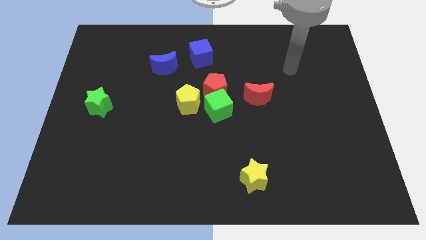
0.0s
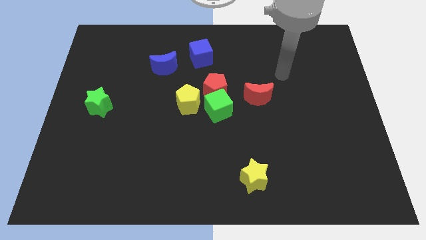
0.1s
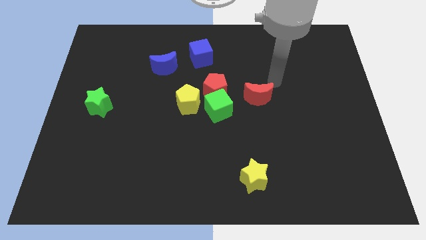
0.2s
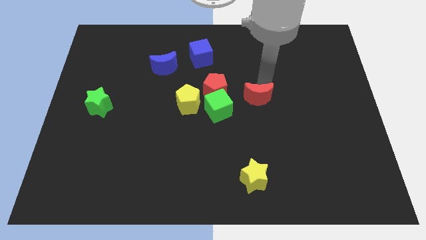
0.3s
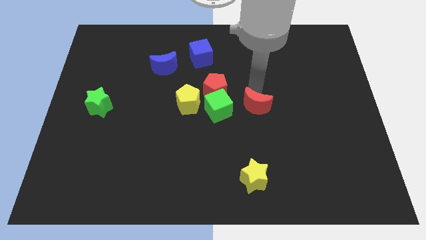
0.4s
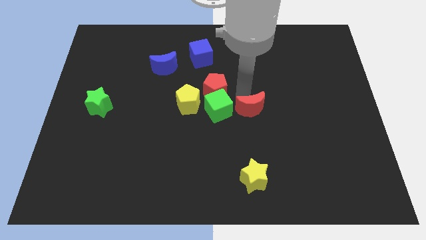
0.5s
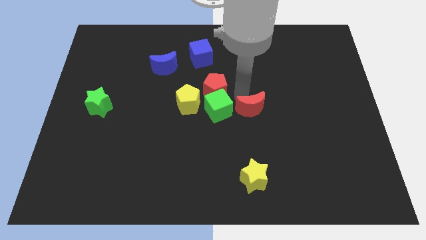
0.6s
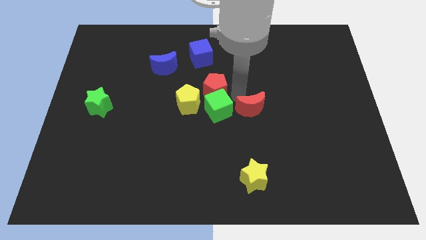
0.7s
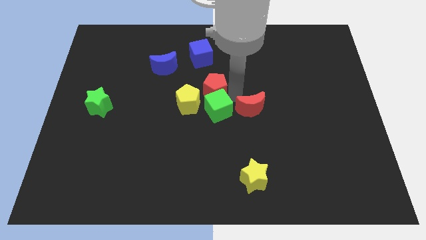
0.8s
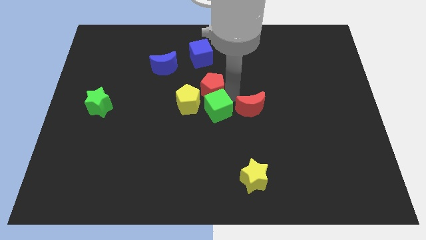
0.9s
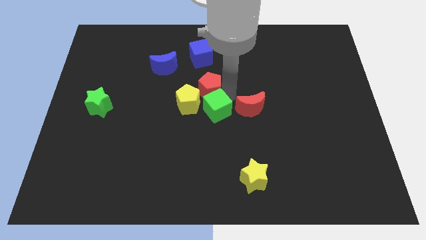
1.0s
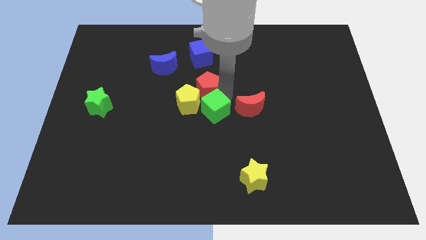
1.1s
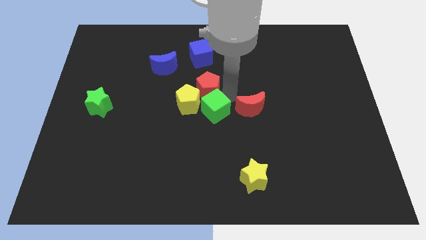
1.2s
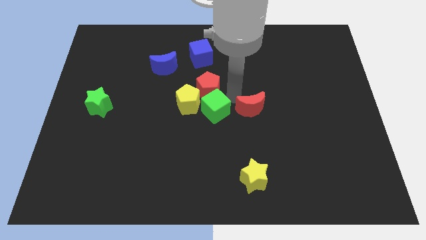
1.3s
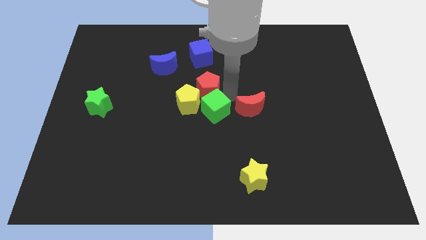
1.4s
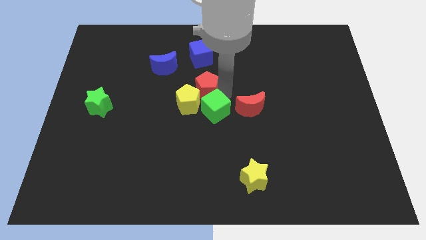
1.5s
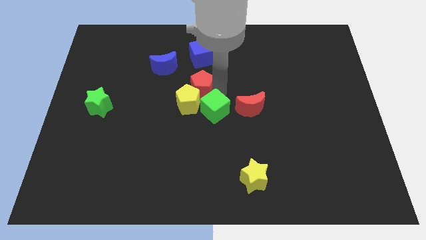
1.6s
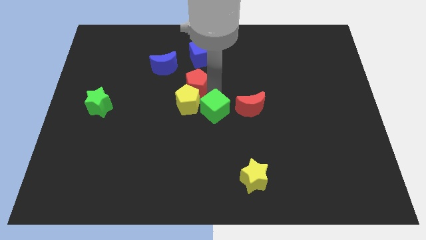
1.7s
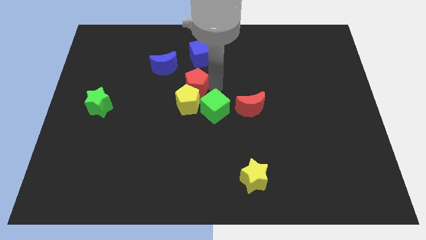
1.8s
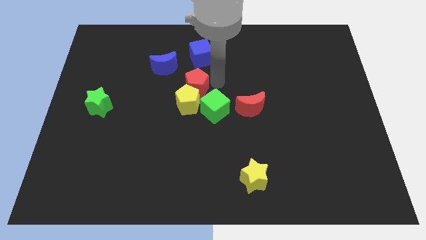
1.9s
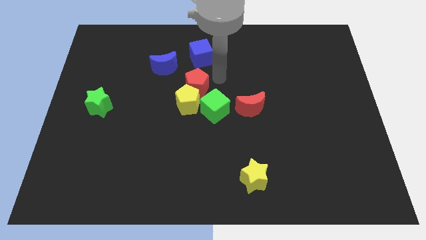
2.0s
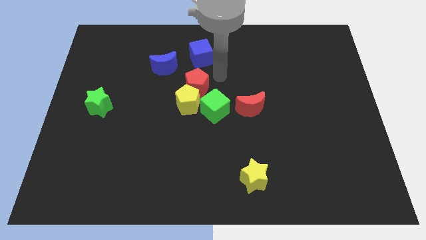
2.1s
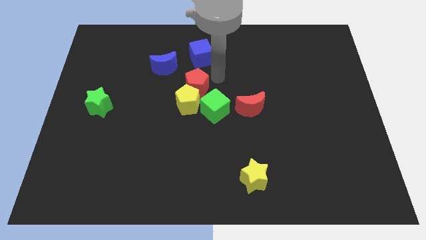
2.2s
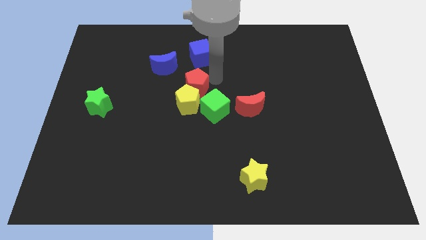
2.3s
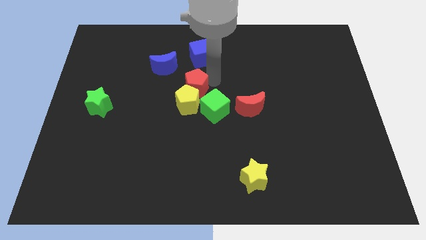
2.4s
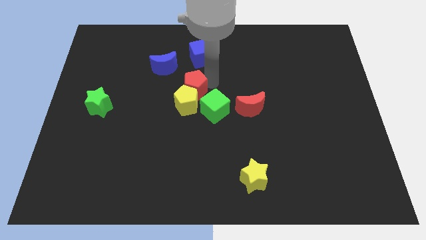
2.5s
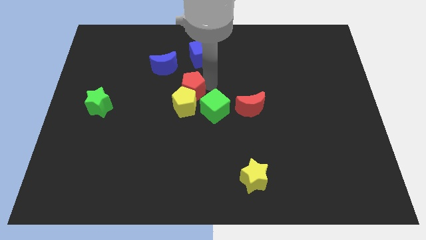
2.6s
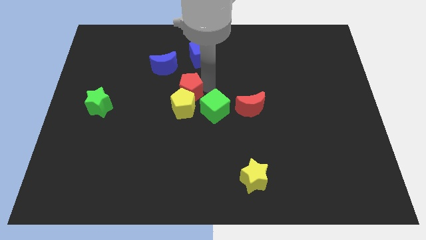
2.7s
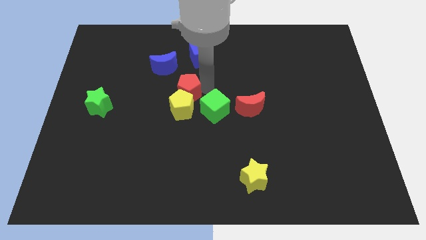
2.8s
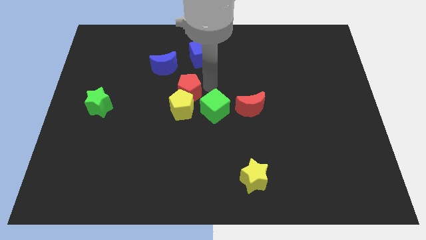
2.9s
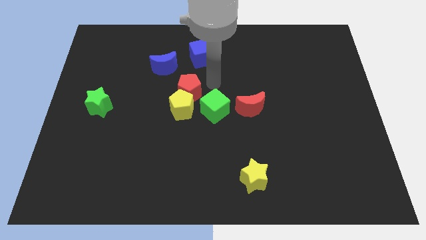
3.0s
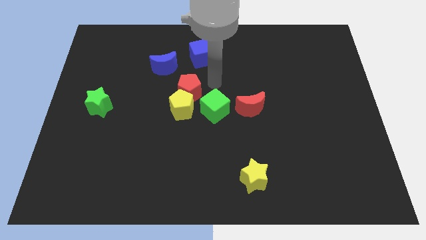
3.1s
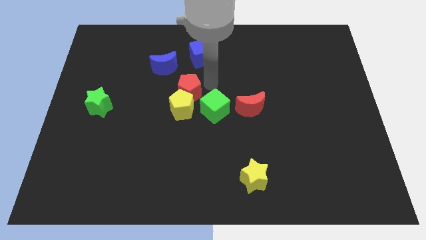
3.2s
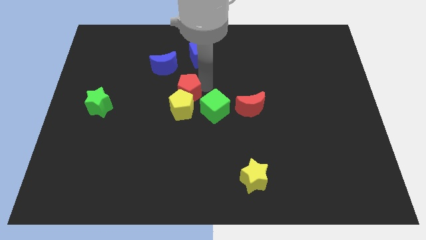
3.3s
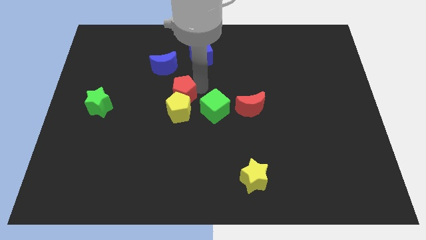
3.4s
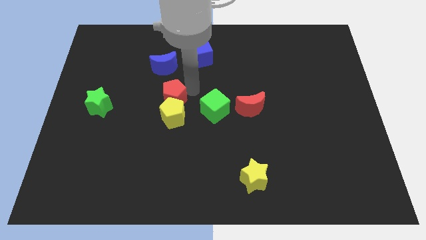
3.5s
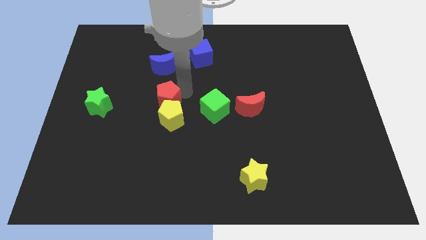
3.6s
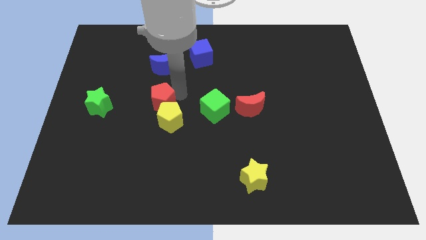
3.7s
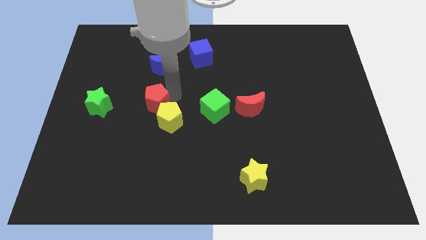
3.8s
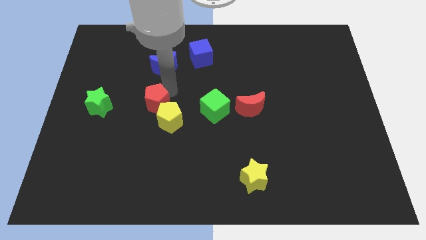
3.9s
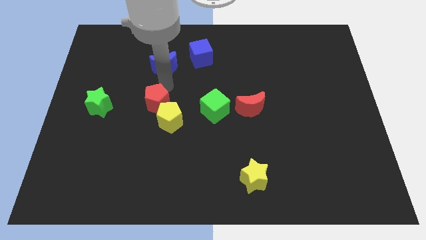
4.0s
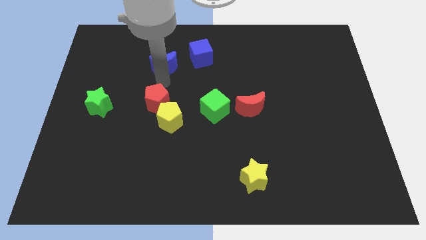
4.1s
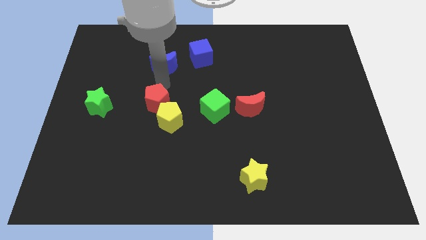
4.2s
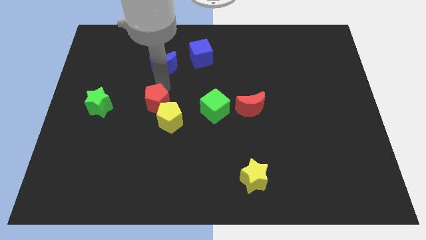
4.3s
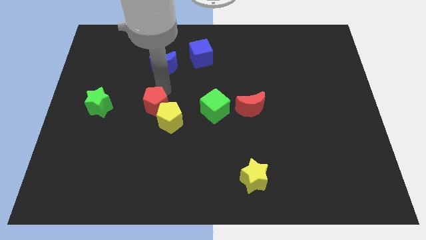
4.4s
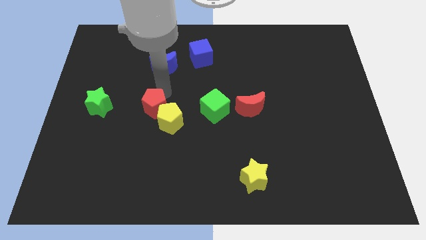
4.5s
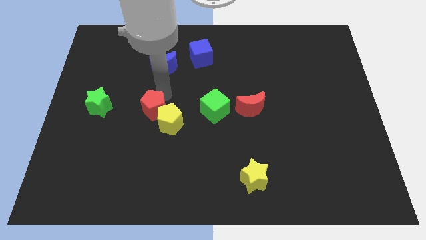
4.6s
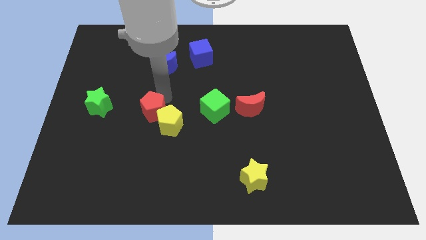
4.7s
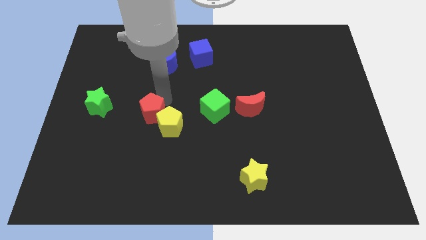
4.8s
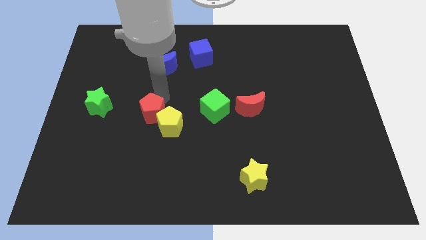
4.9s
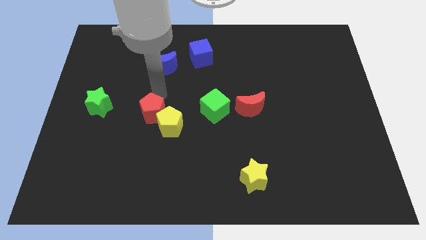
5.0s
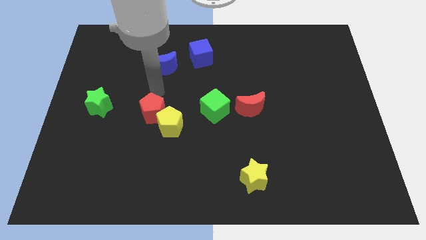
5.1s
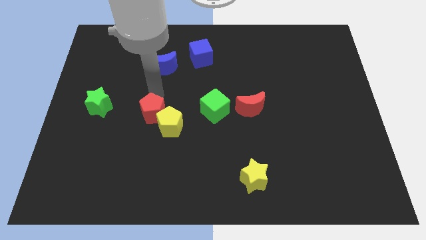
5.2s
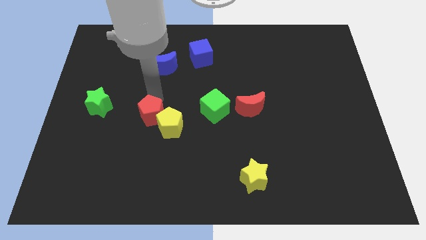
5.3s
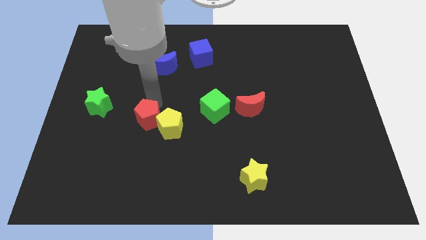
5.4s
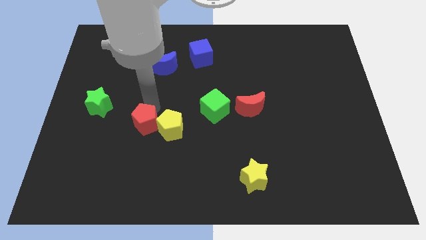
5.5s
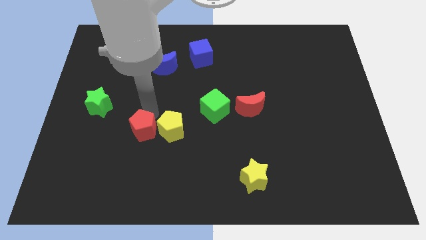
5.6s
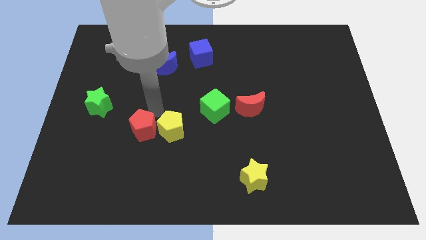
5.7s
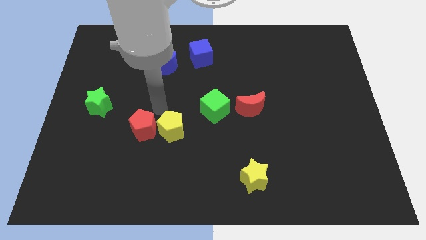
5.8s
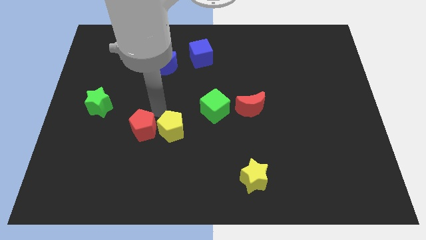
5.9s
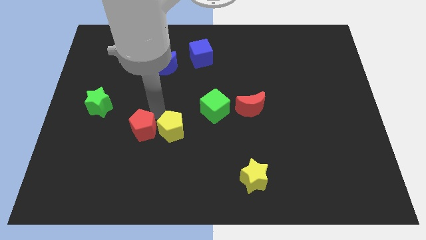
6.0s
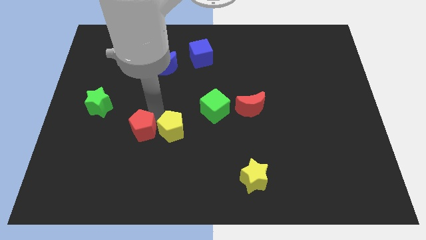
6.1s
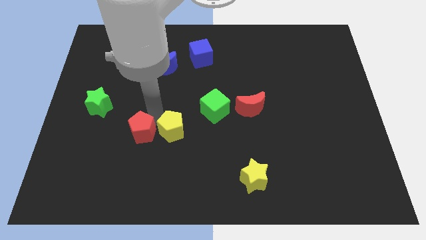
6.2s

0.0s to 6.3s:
move the red pentagon down and left diagonally

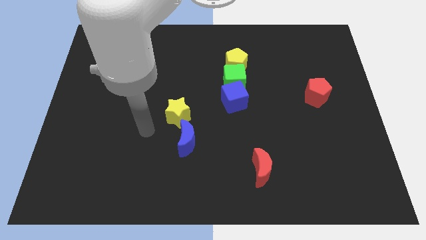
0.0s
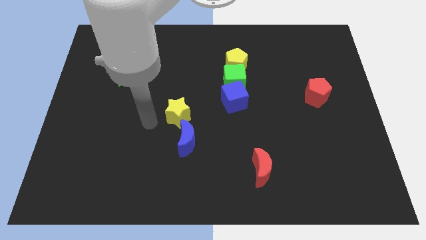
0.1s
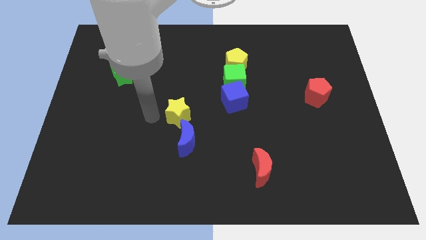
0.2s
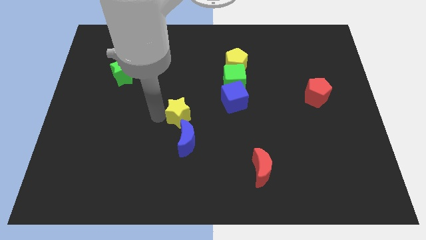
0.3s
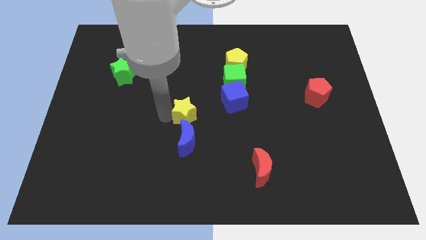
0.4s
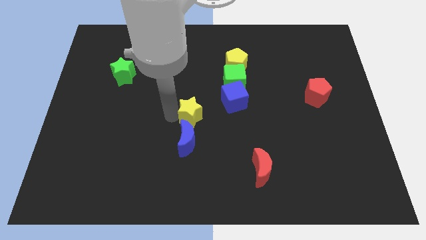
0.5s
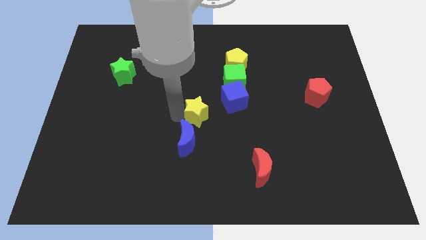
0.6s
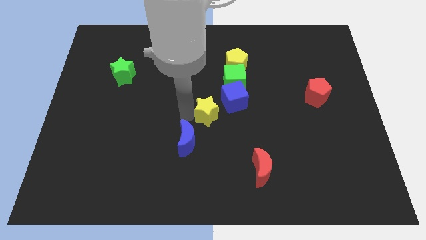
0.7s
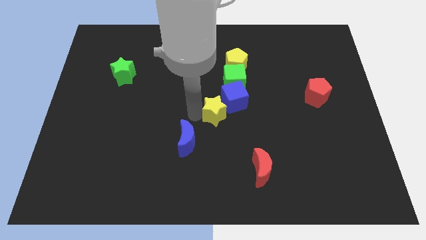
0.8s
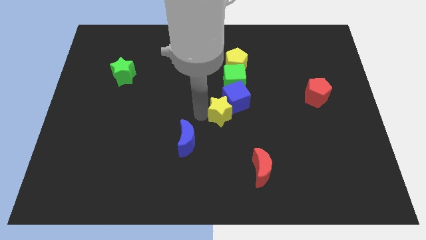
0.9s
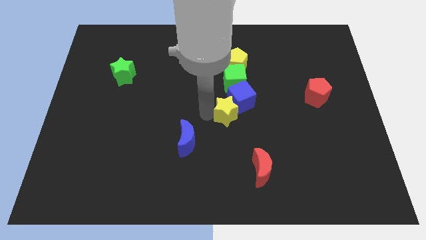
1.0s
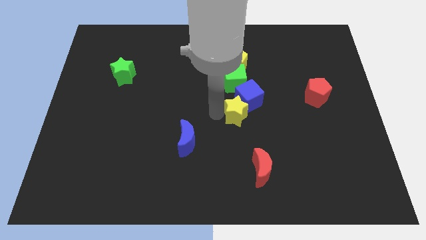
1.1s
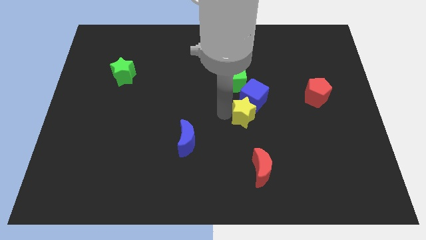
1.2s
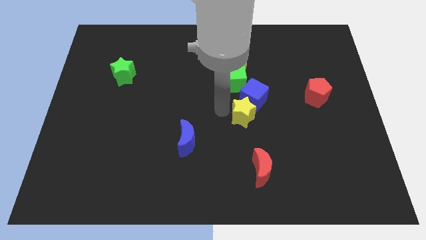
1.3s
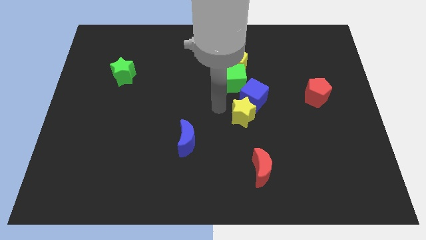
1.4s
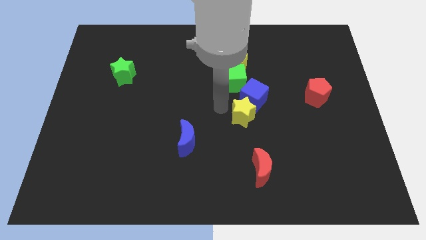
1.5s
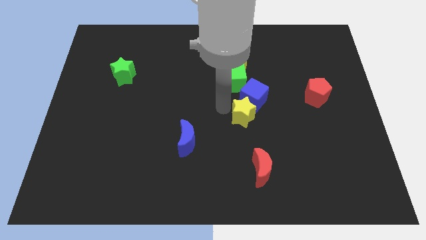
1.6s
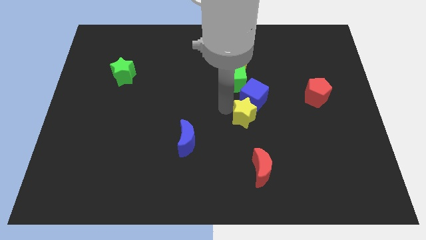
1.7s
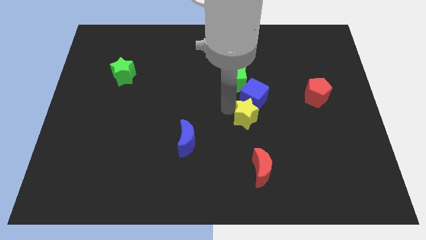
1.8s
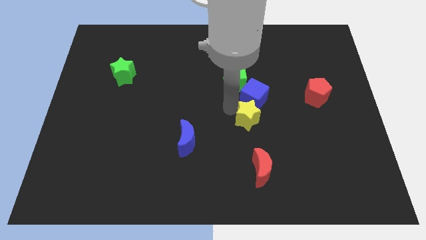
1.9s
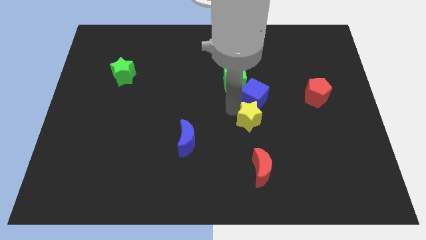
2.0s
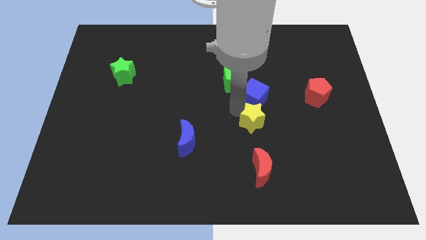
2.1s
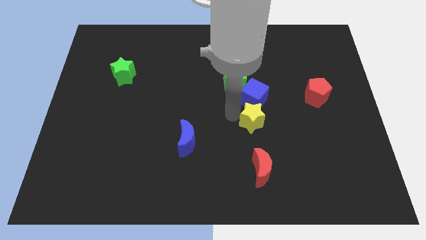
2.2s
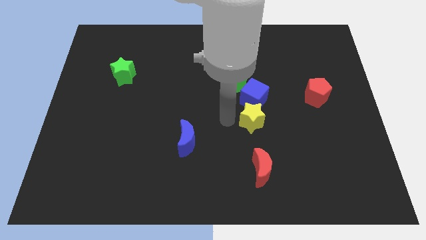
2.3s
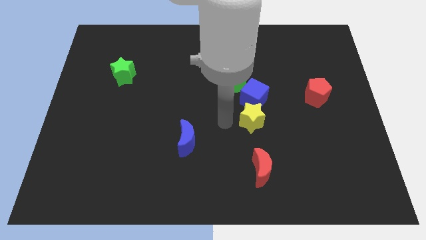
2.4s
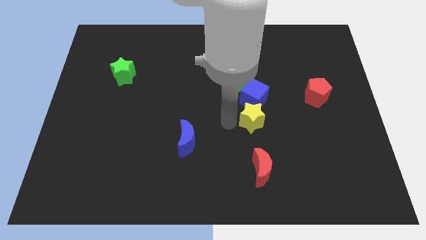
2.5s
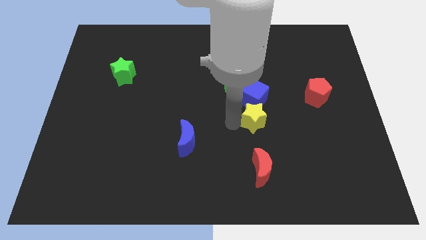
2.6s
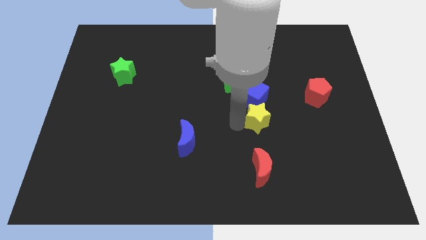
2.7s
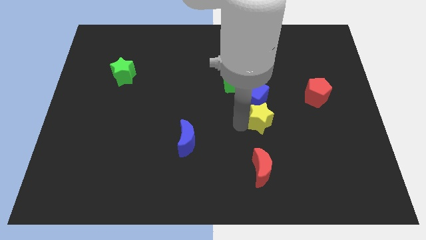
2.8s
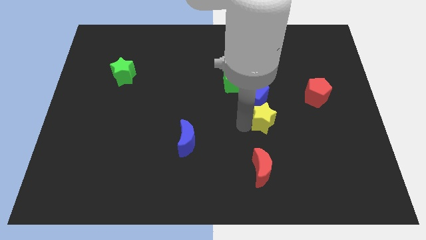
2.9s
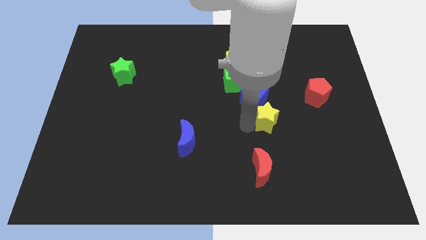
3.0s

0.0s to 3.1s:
slide the yellow star to the right
